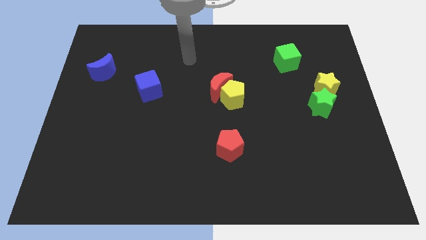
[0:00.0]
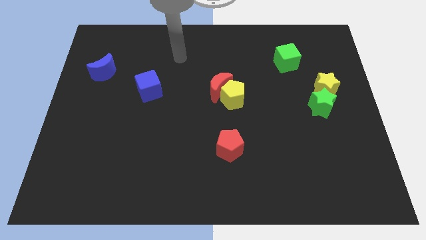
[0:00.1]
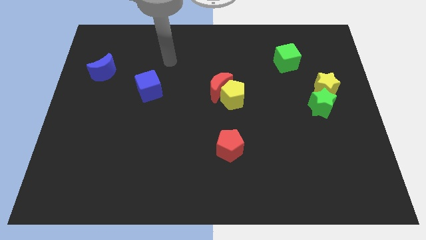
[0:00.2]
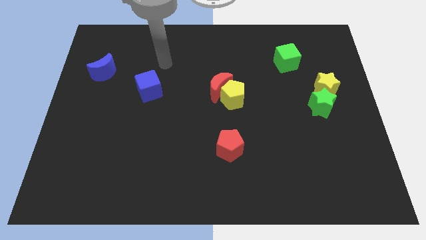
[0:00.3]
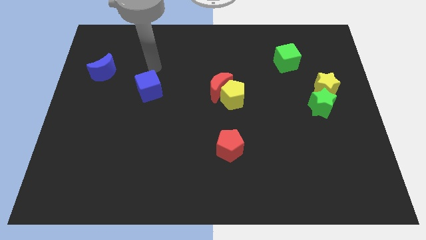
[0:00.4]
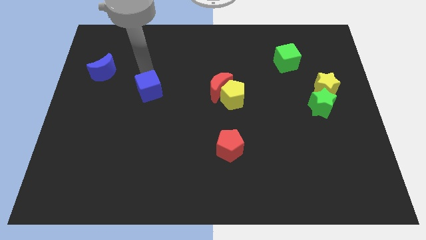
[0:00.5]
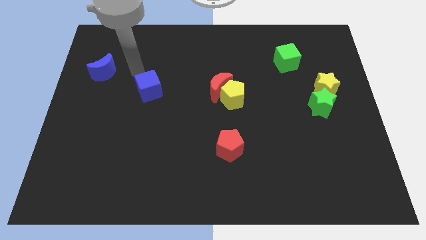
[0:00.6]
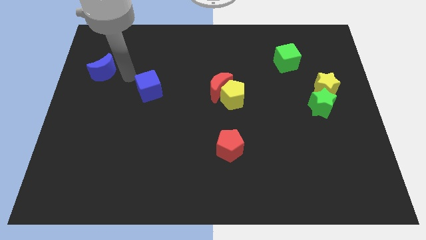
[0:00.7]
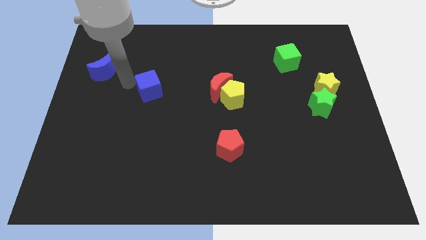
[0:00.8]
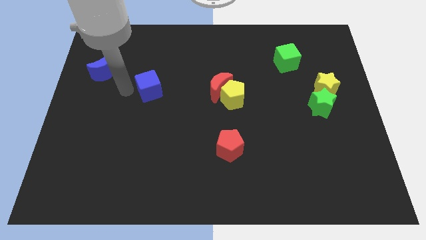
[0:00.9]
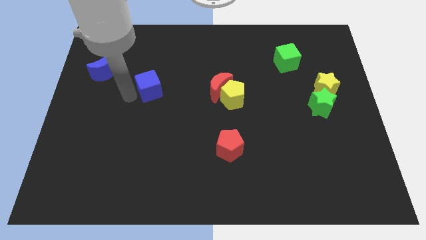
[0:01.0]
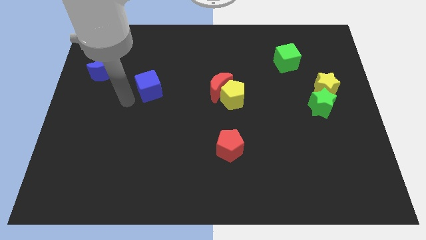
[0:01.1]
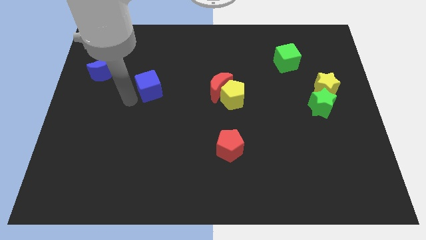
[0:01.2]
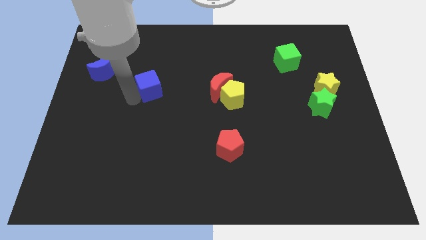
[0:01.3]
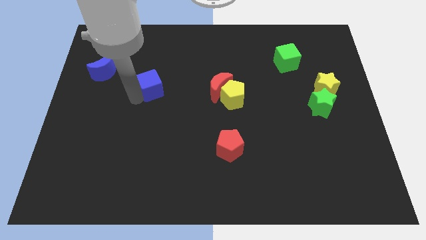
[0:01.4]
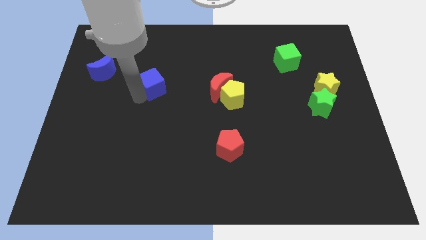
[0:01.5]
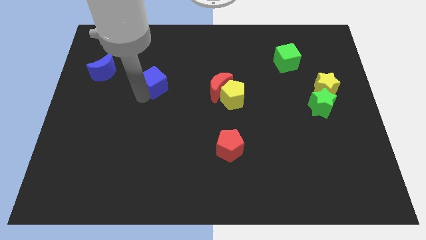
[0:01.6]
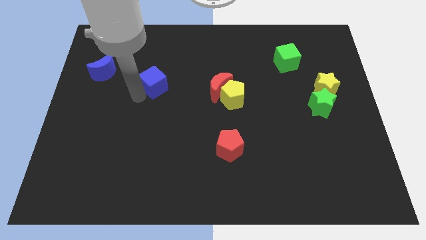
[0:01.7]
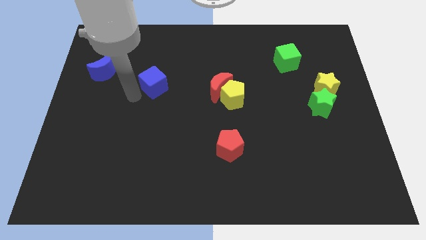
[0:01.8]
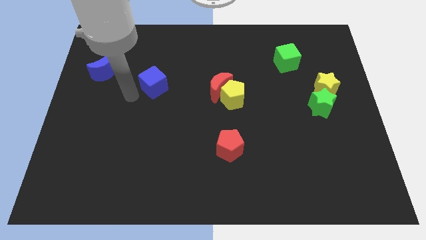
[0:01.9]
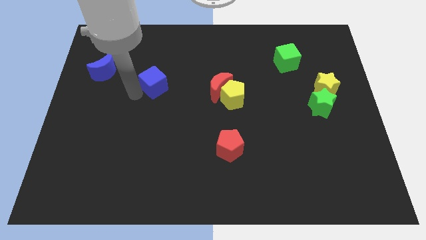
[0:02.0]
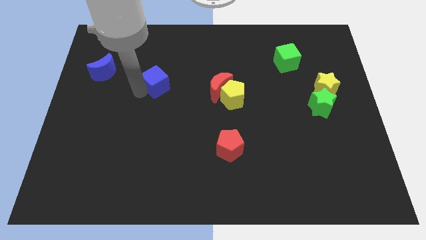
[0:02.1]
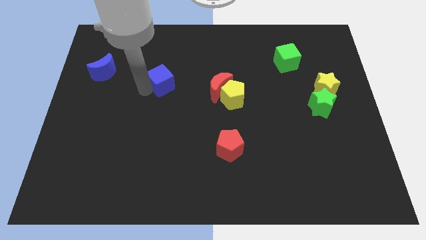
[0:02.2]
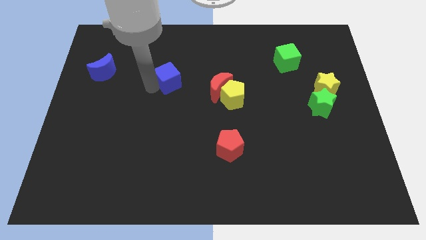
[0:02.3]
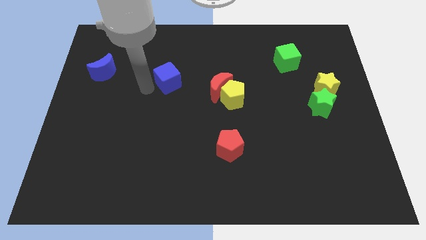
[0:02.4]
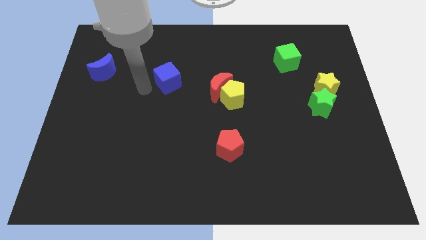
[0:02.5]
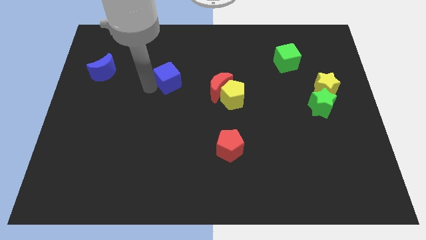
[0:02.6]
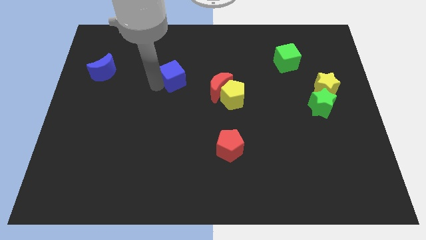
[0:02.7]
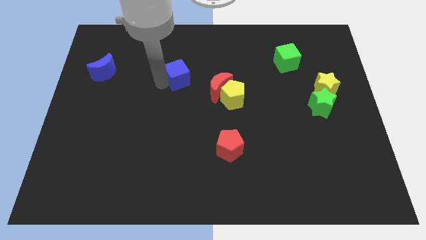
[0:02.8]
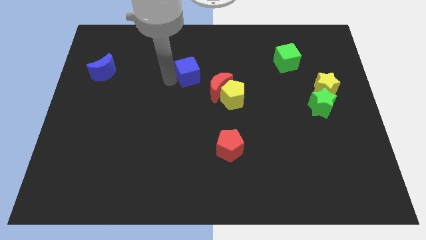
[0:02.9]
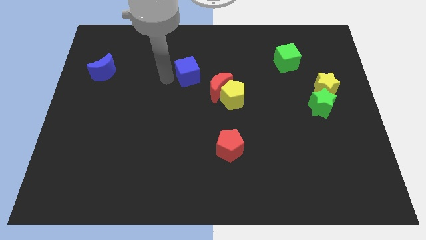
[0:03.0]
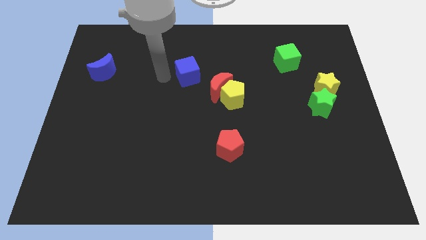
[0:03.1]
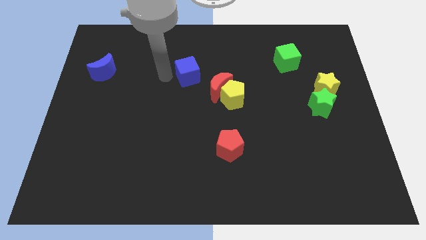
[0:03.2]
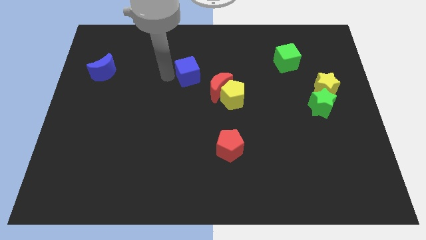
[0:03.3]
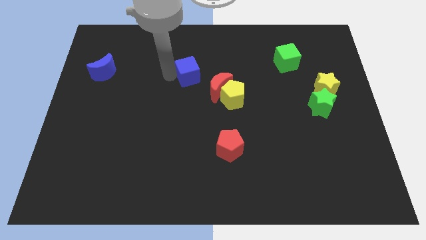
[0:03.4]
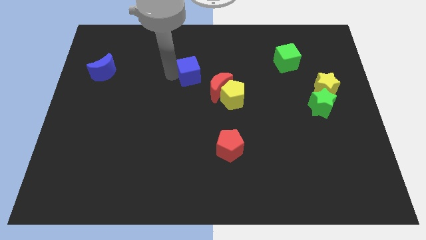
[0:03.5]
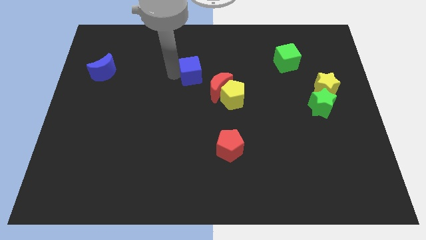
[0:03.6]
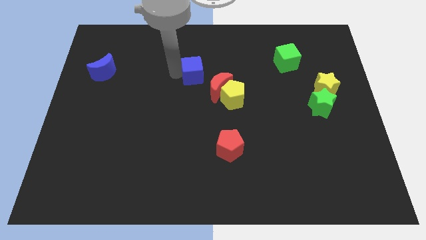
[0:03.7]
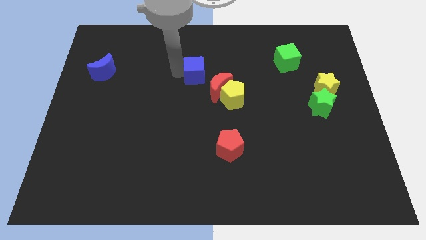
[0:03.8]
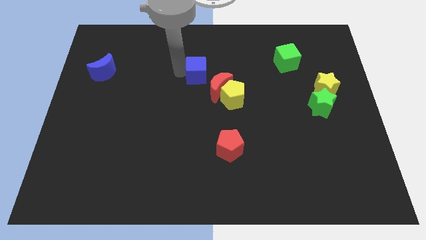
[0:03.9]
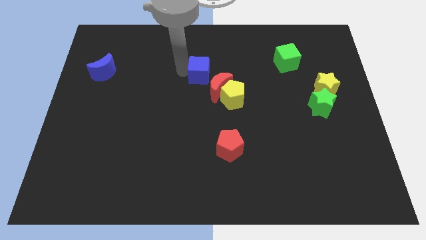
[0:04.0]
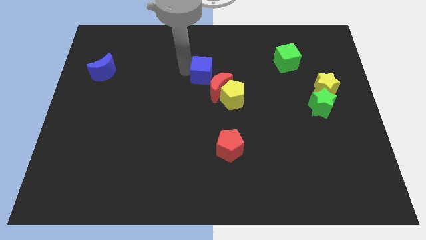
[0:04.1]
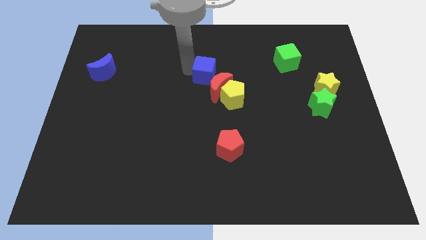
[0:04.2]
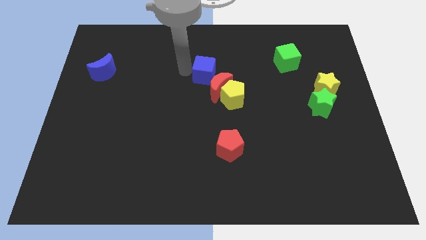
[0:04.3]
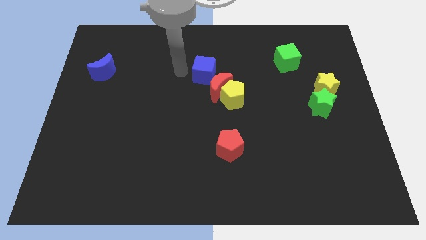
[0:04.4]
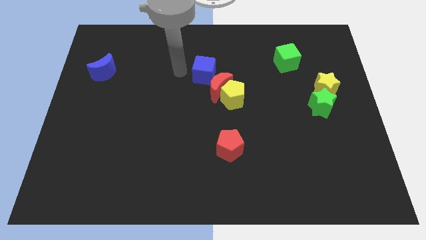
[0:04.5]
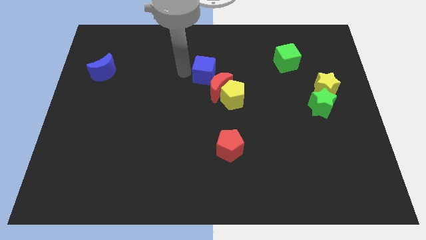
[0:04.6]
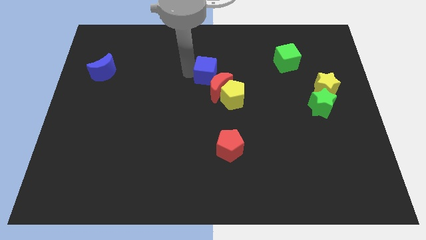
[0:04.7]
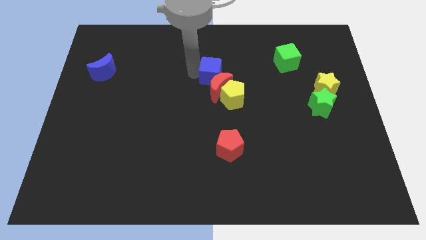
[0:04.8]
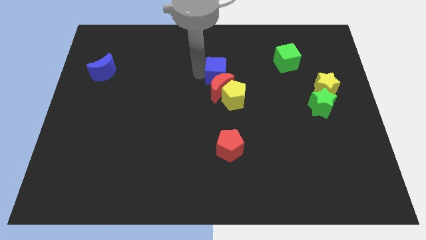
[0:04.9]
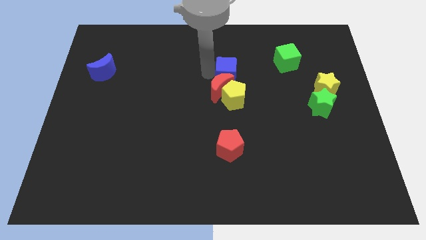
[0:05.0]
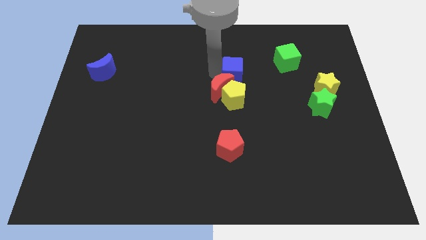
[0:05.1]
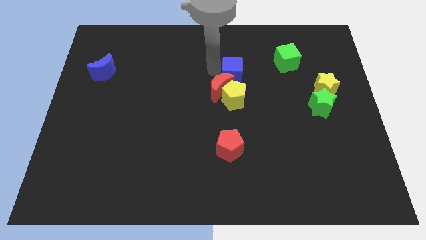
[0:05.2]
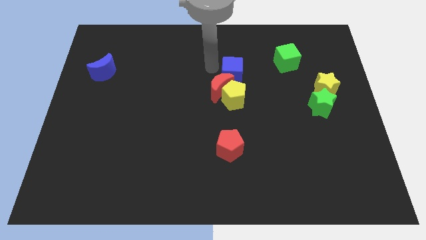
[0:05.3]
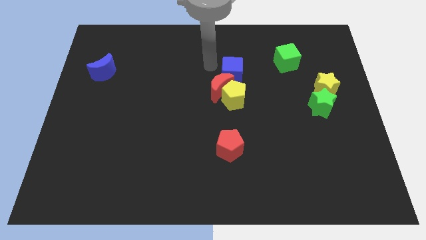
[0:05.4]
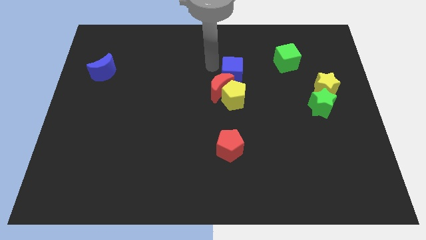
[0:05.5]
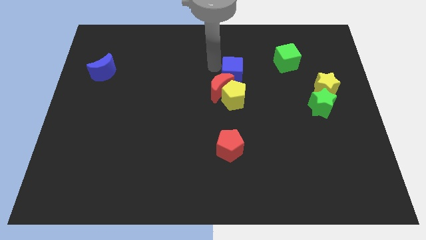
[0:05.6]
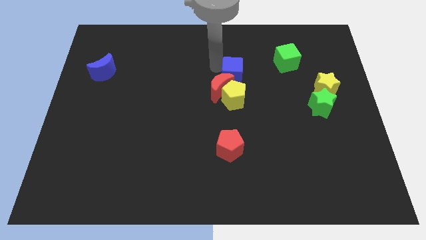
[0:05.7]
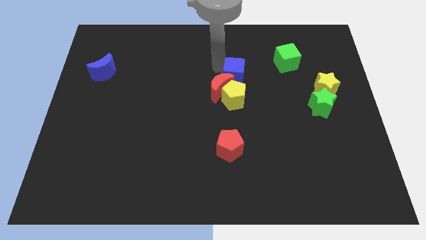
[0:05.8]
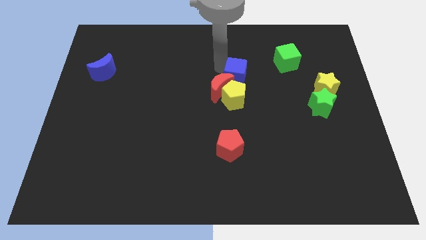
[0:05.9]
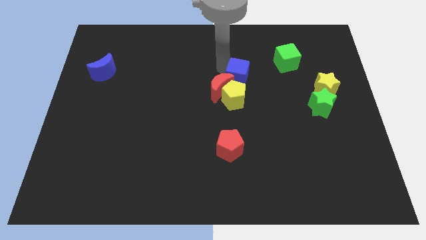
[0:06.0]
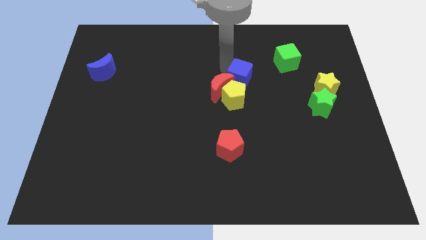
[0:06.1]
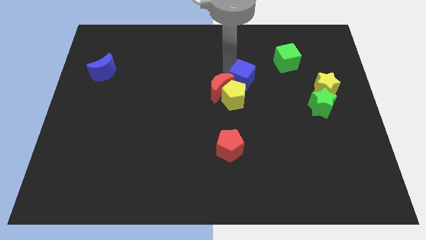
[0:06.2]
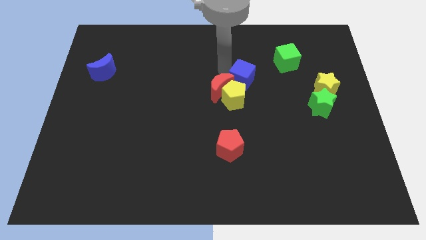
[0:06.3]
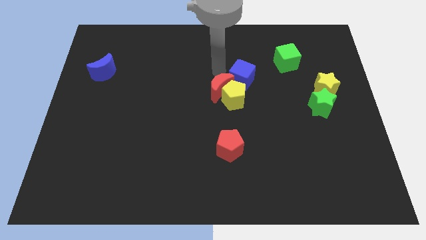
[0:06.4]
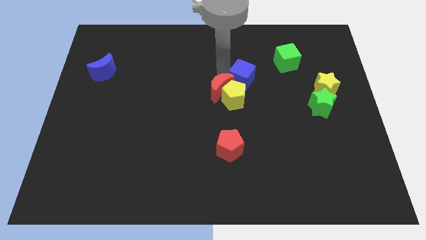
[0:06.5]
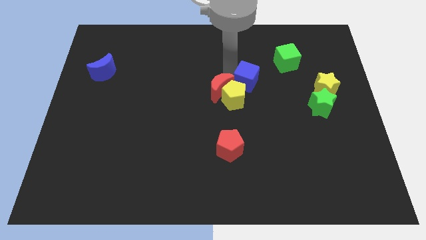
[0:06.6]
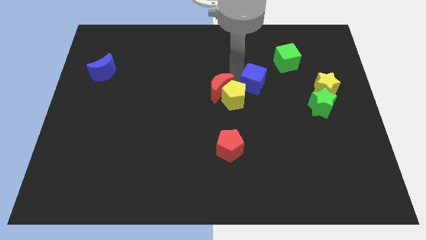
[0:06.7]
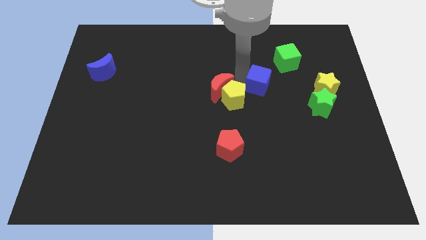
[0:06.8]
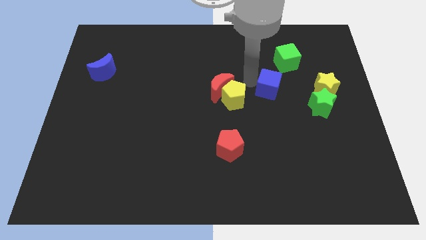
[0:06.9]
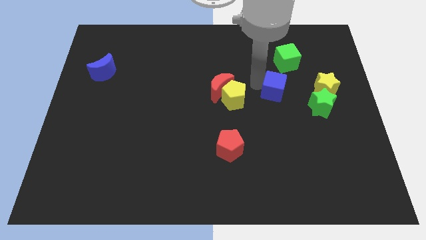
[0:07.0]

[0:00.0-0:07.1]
slide the blue cube to the bottom side of the green cube
